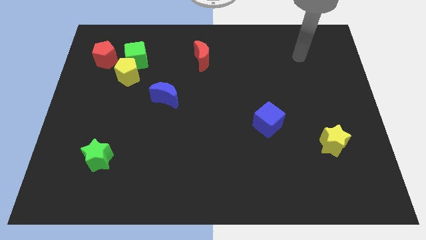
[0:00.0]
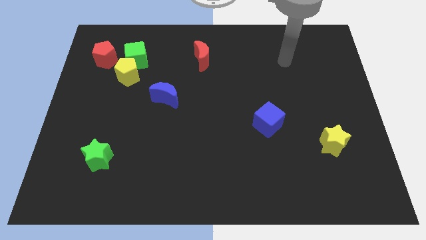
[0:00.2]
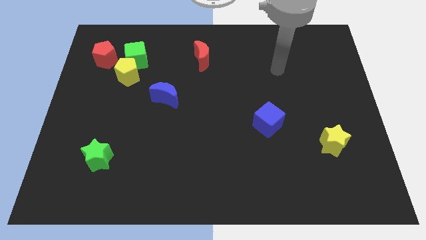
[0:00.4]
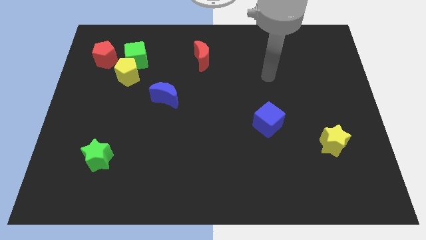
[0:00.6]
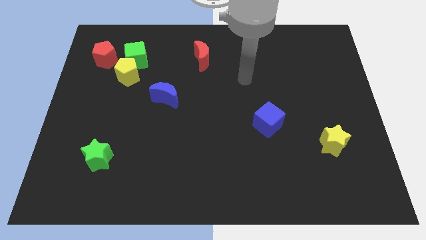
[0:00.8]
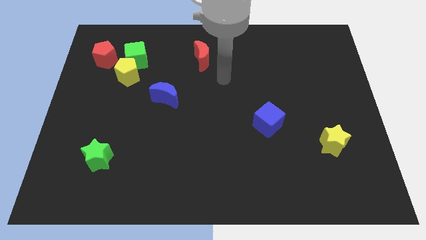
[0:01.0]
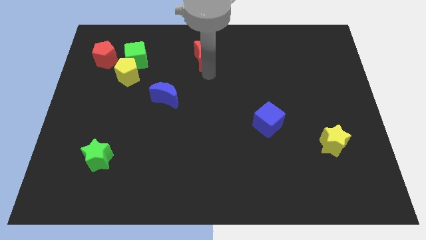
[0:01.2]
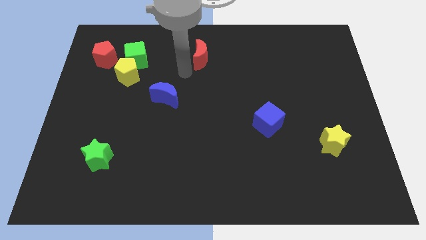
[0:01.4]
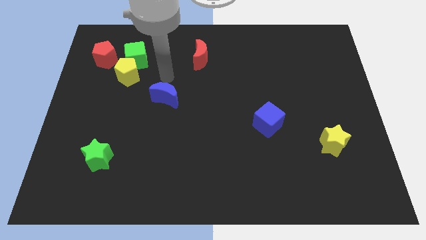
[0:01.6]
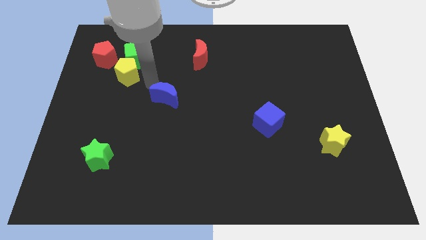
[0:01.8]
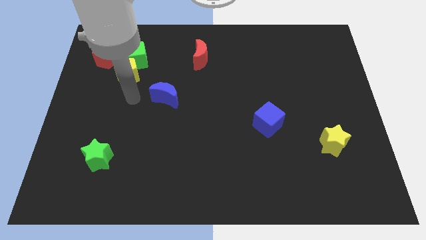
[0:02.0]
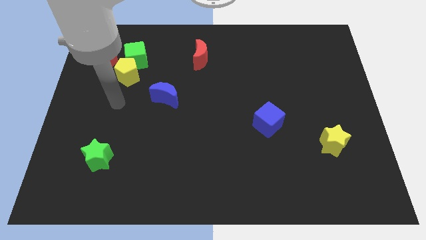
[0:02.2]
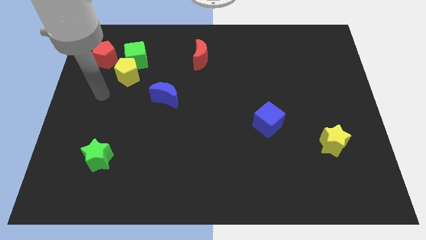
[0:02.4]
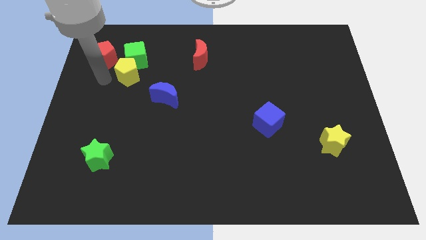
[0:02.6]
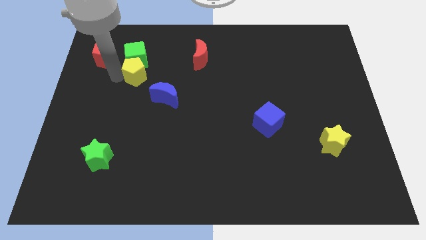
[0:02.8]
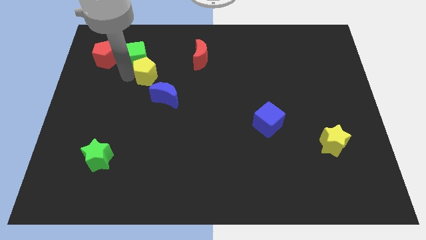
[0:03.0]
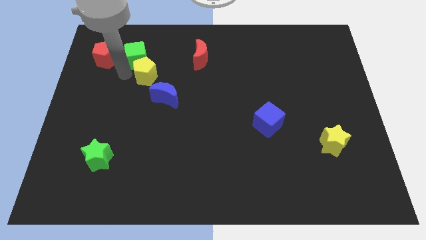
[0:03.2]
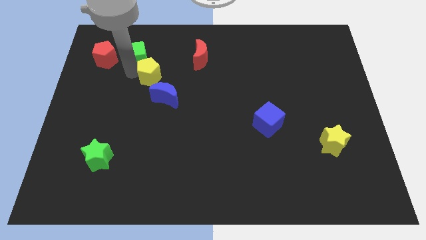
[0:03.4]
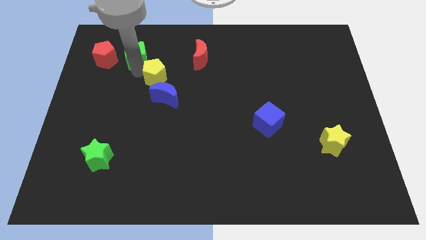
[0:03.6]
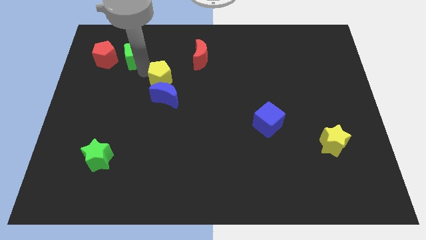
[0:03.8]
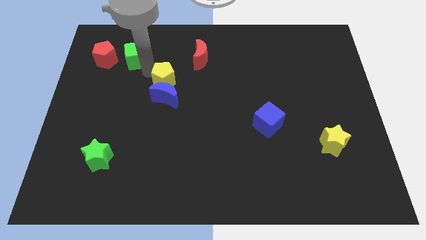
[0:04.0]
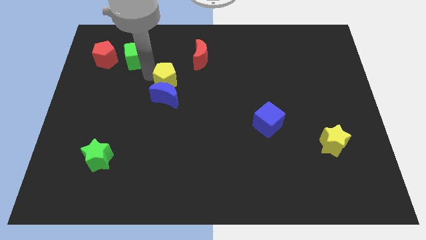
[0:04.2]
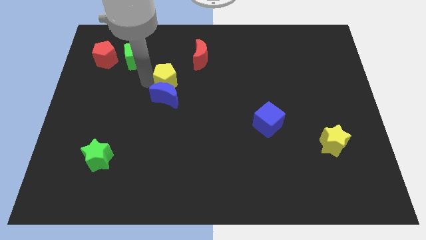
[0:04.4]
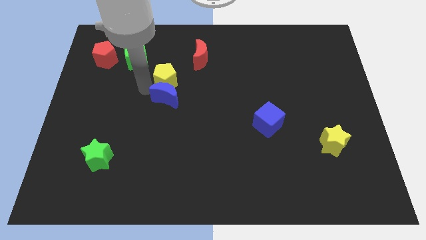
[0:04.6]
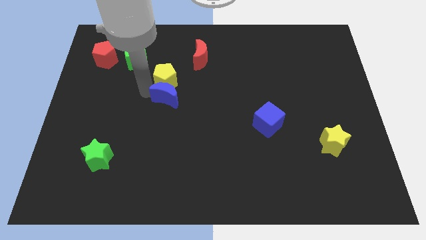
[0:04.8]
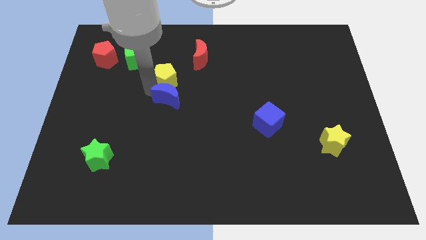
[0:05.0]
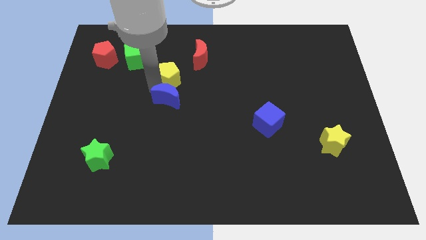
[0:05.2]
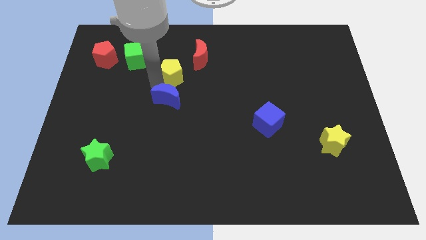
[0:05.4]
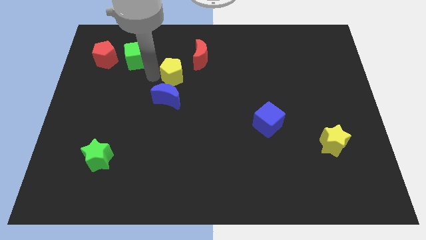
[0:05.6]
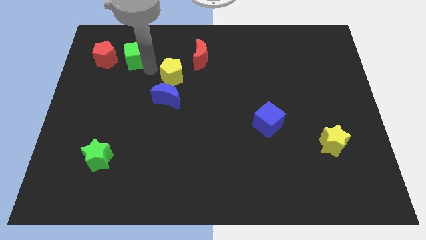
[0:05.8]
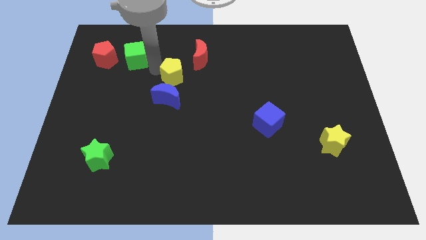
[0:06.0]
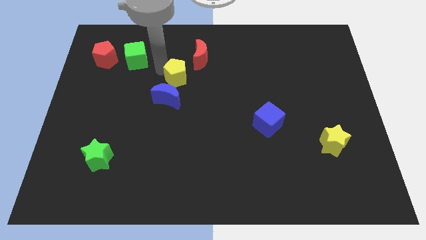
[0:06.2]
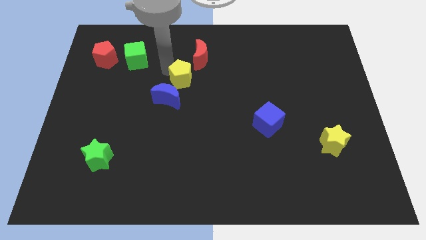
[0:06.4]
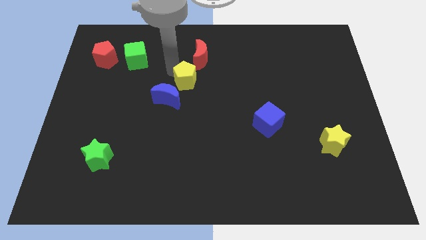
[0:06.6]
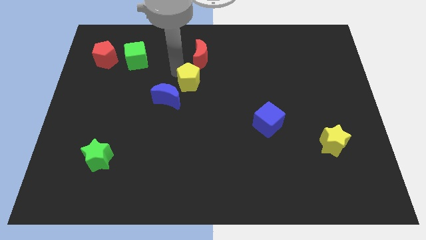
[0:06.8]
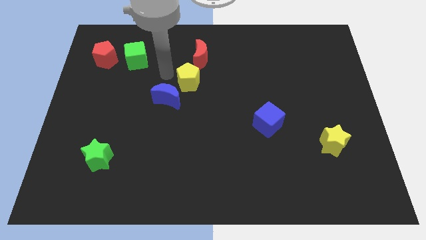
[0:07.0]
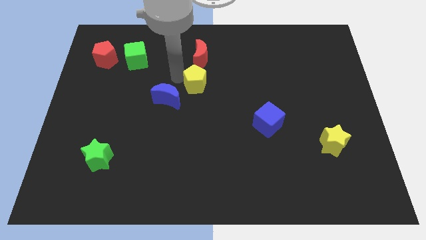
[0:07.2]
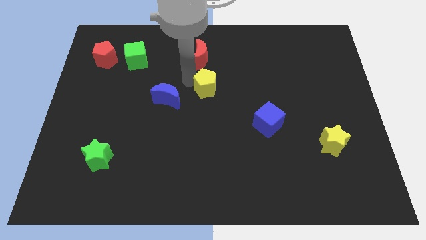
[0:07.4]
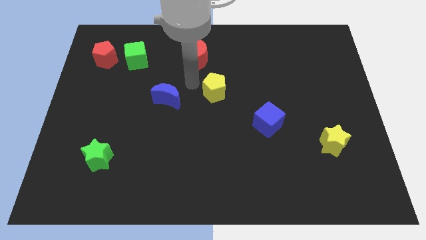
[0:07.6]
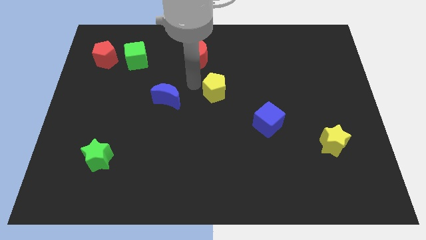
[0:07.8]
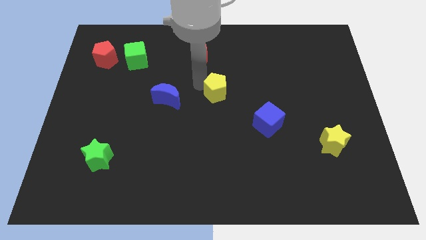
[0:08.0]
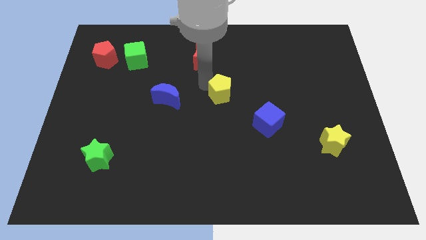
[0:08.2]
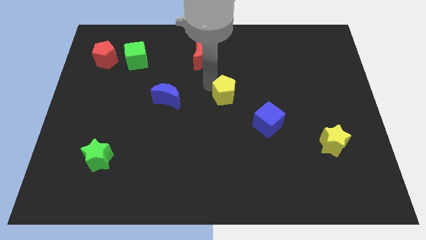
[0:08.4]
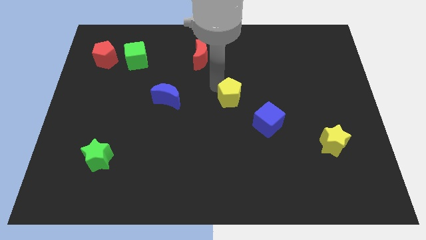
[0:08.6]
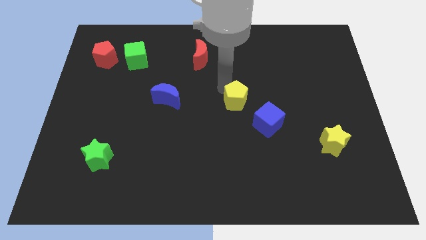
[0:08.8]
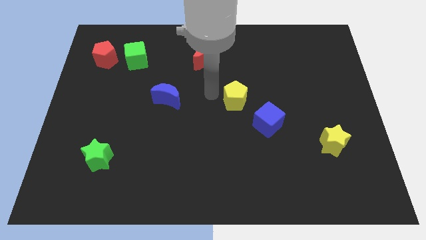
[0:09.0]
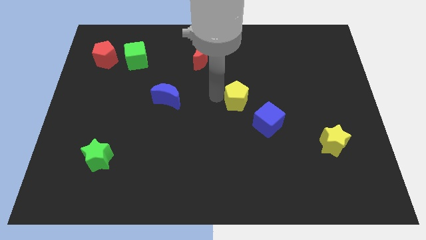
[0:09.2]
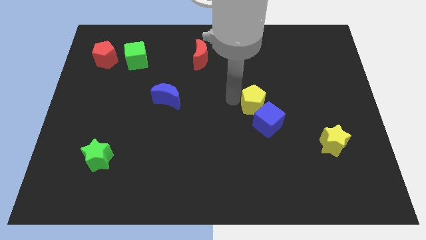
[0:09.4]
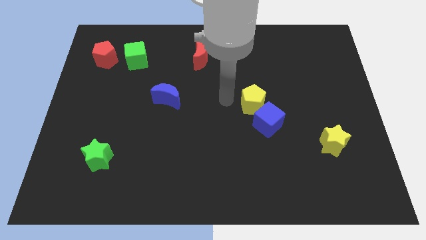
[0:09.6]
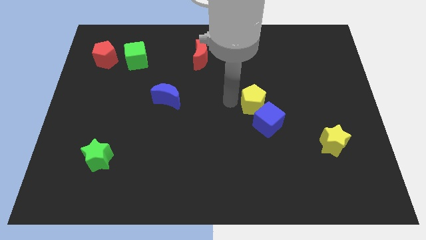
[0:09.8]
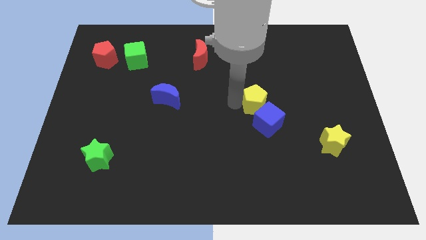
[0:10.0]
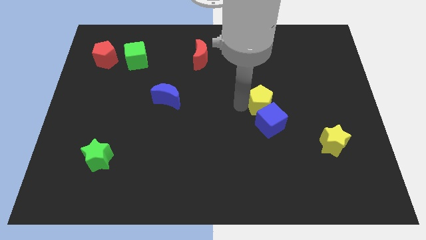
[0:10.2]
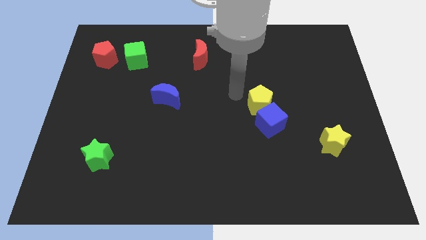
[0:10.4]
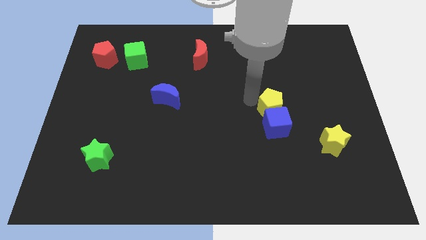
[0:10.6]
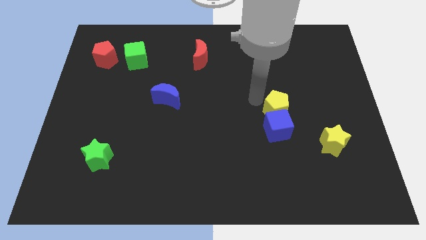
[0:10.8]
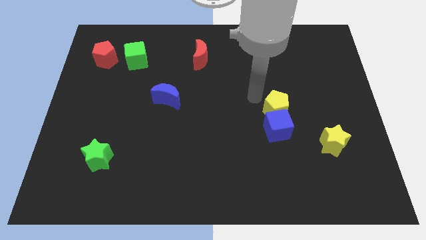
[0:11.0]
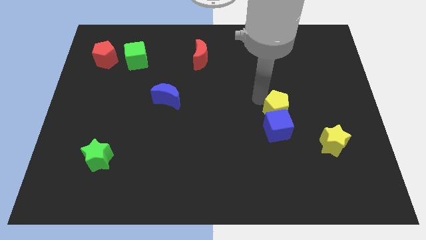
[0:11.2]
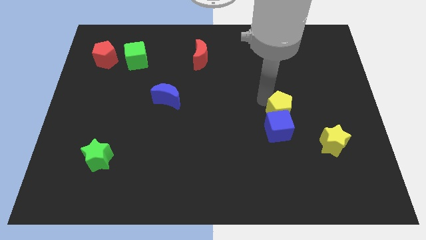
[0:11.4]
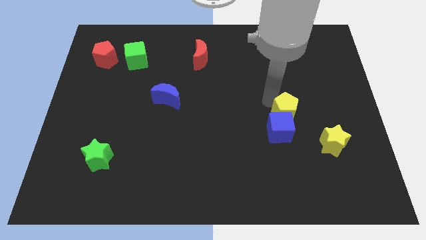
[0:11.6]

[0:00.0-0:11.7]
put the yellow pentagon to the top left of the yellow star
